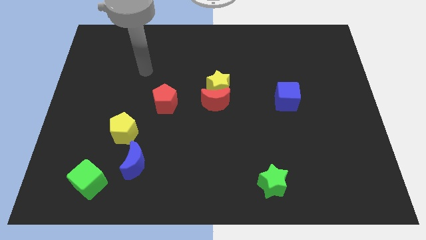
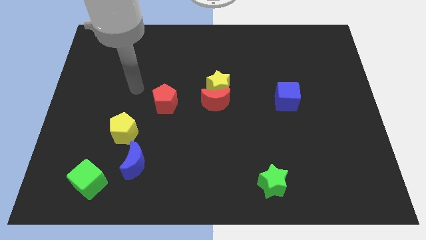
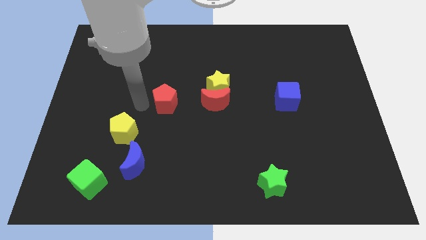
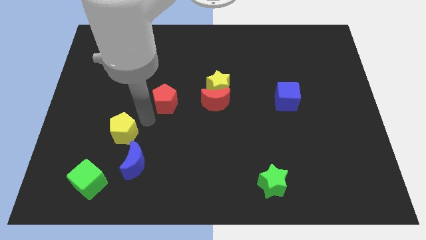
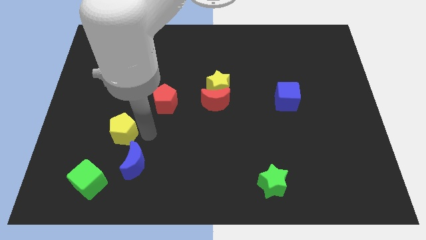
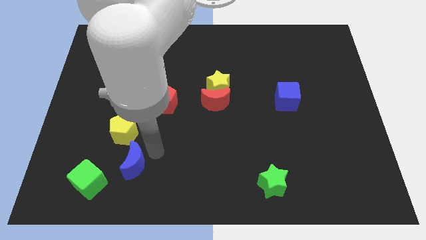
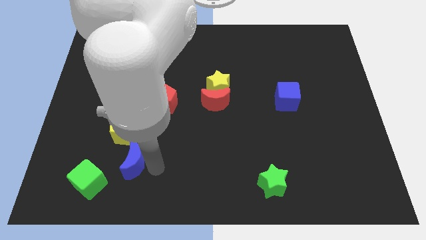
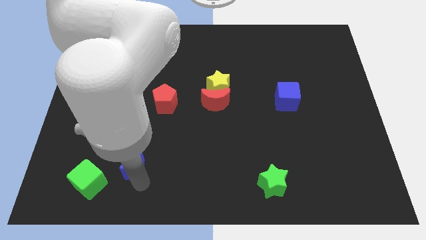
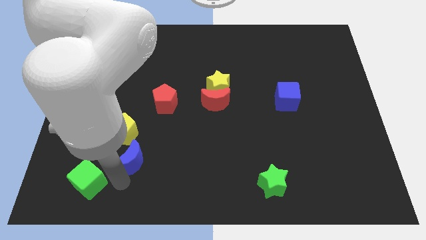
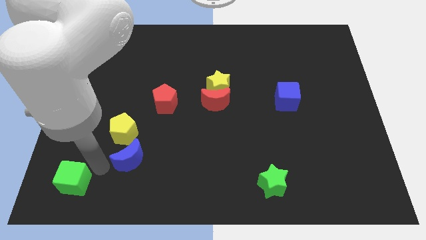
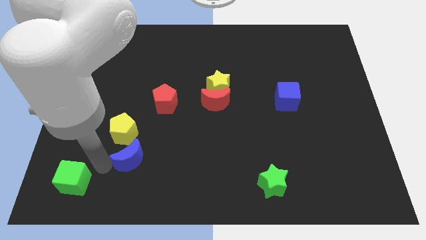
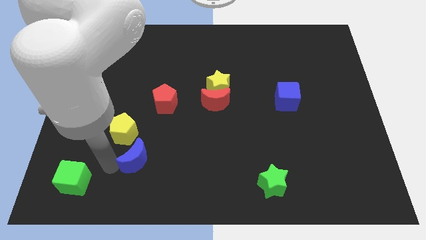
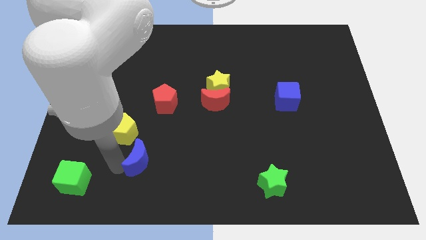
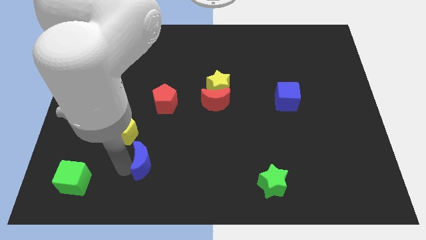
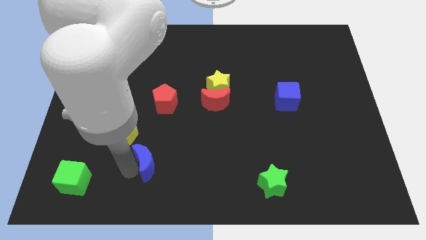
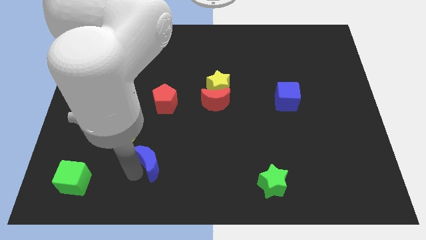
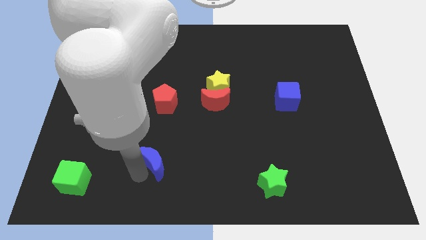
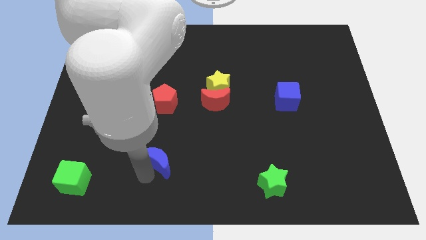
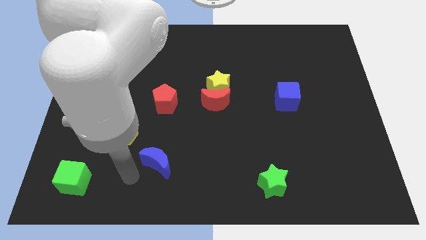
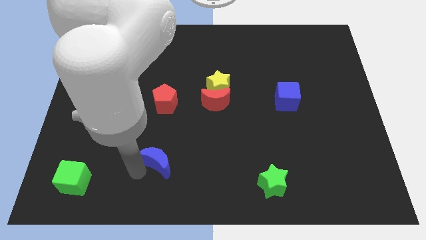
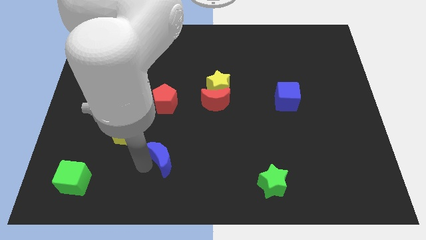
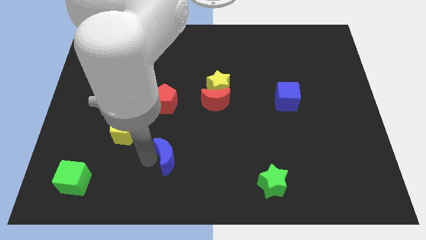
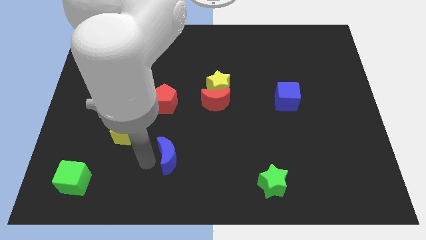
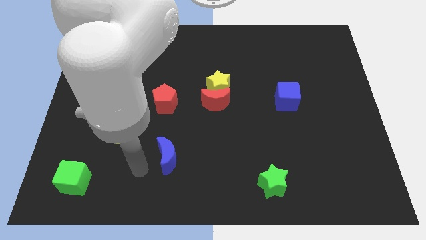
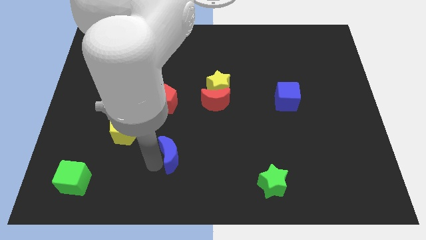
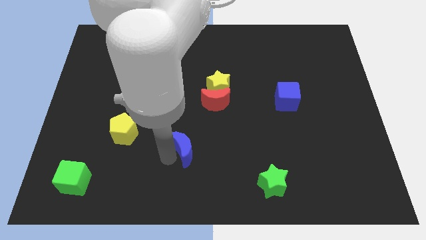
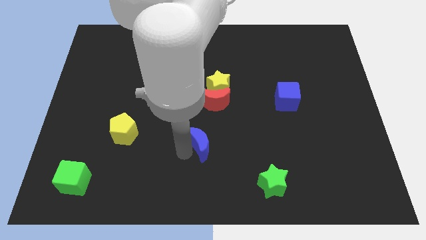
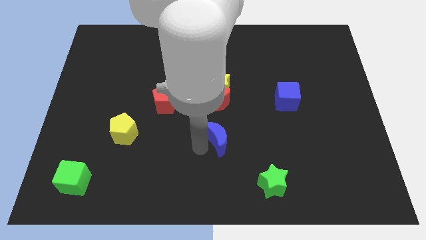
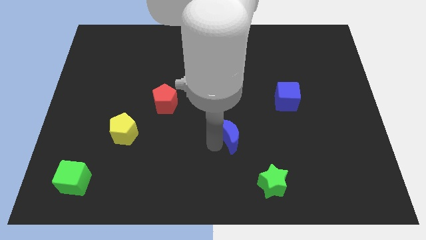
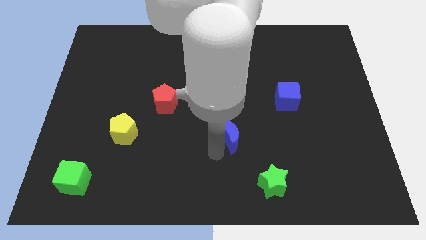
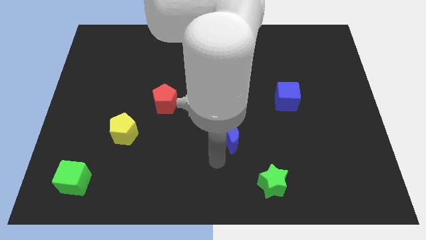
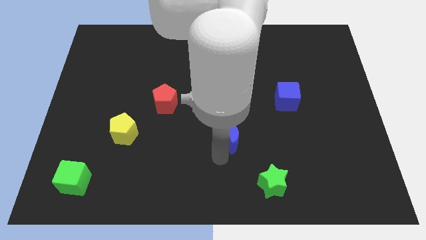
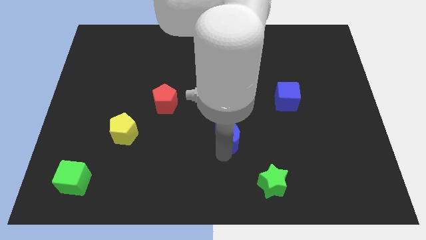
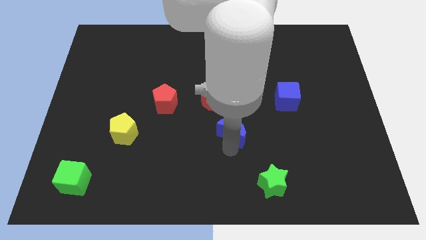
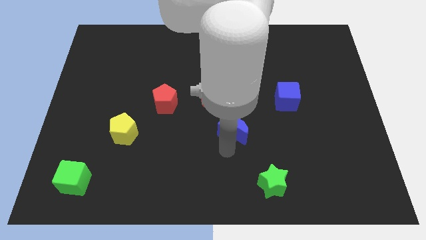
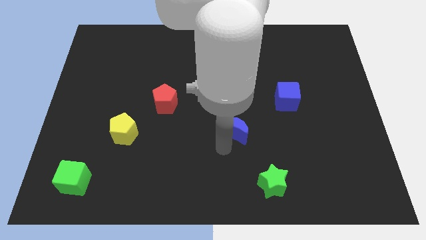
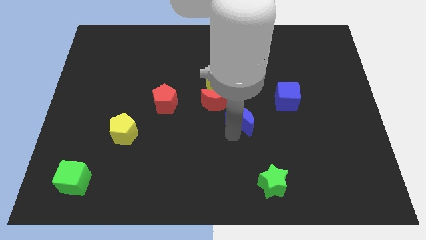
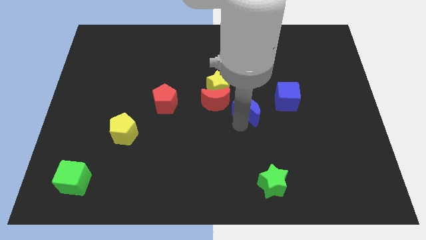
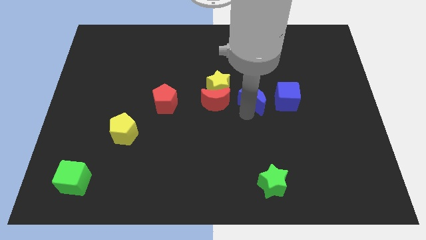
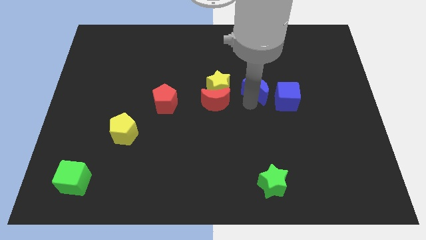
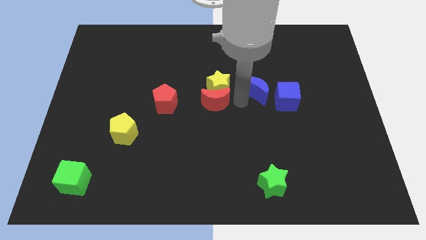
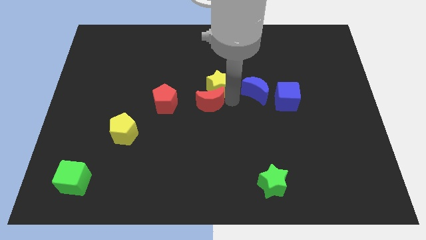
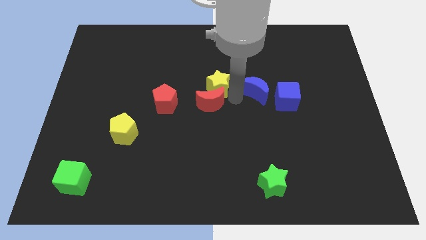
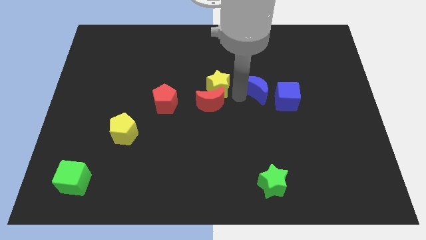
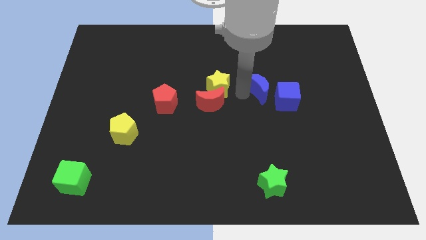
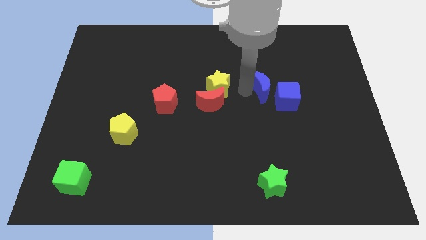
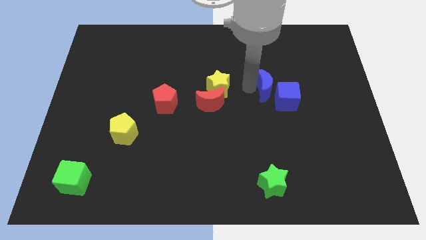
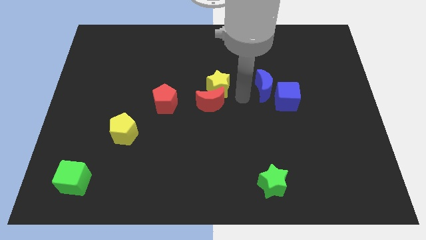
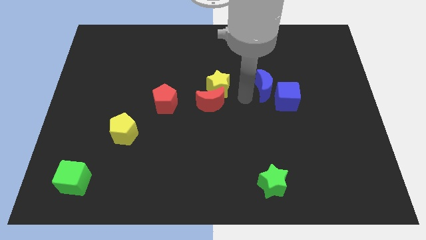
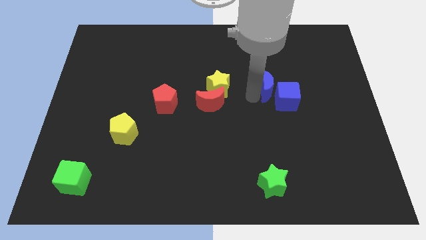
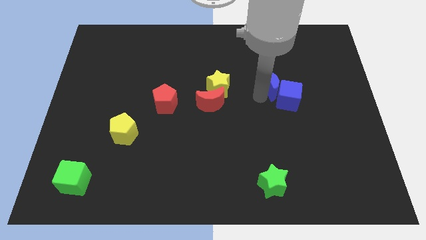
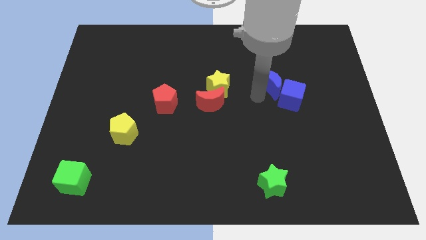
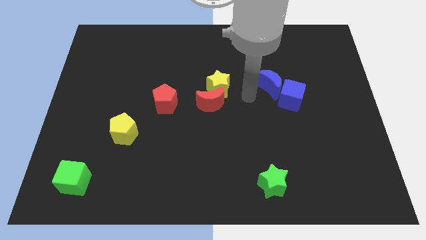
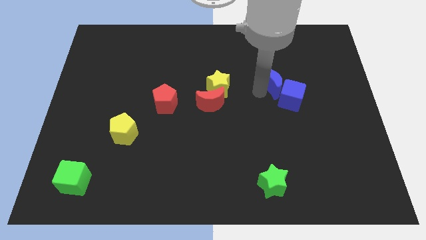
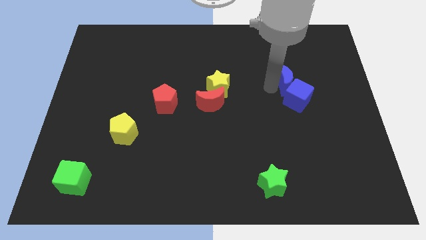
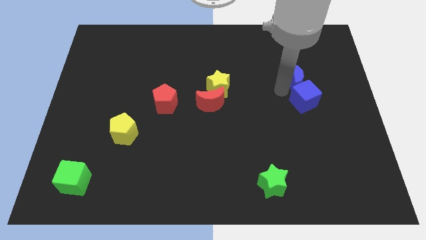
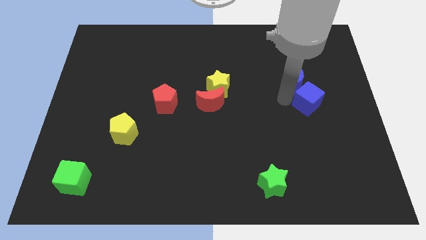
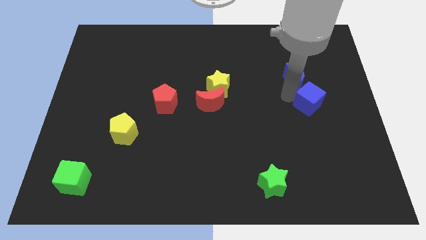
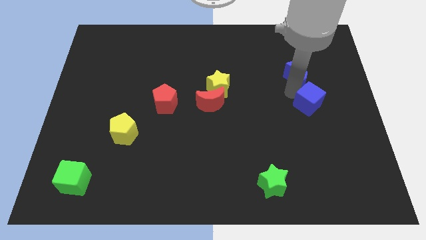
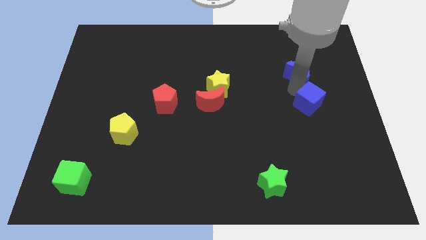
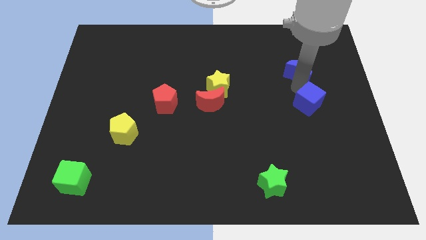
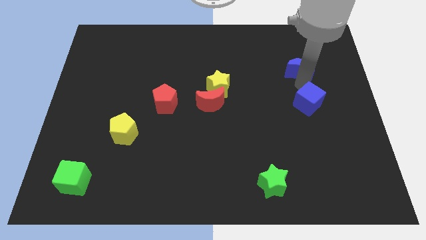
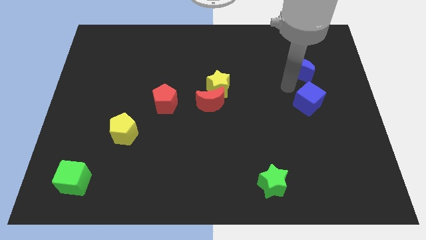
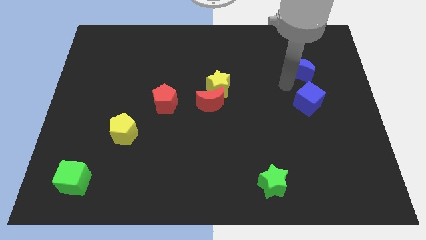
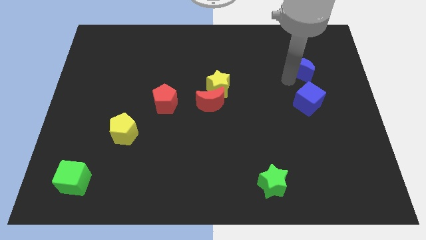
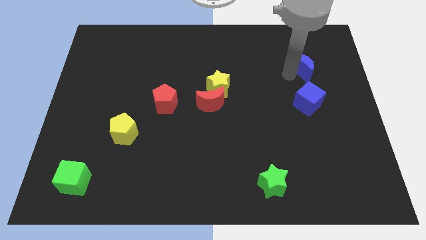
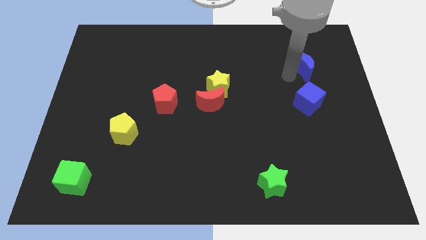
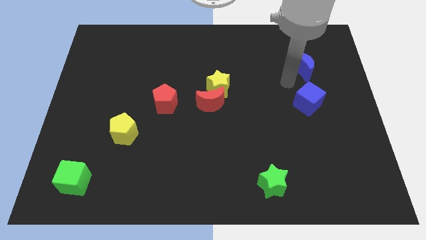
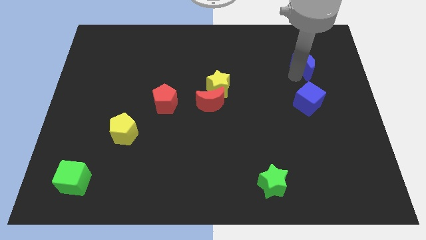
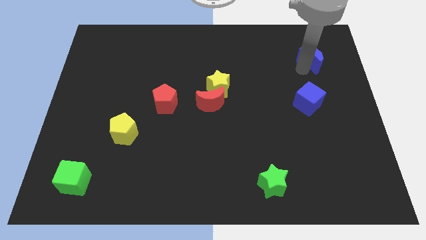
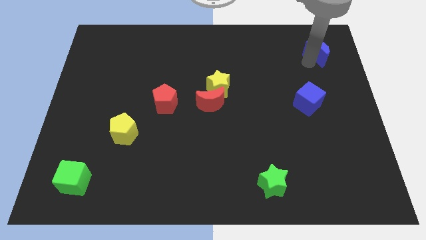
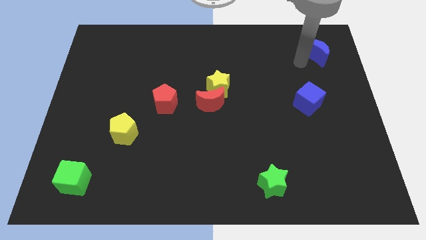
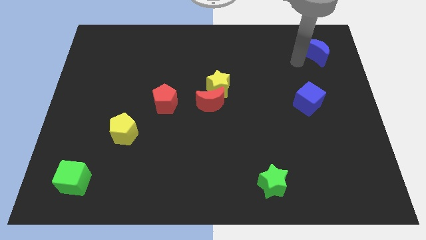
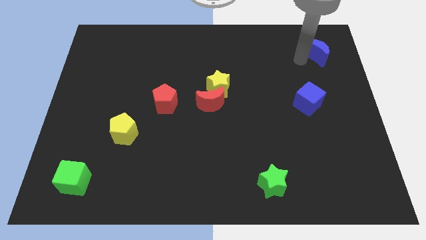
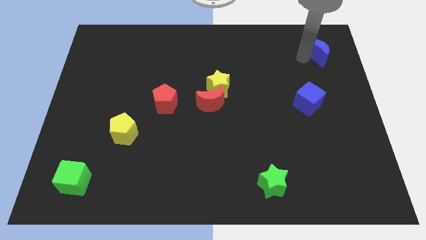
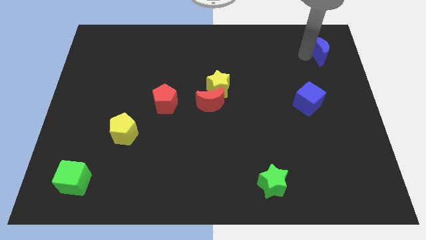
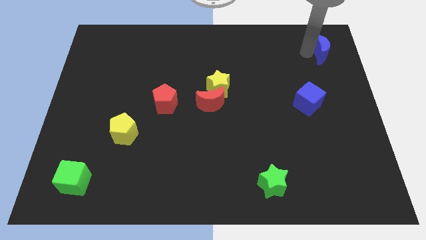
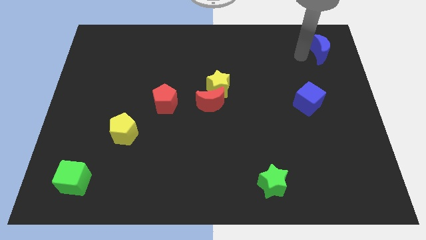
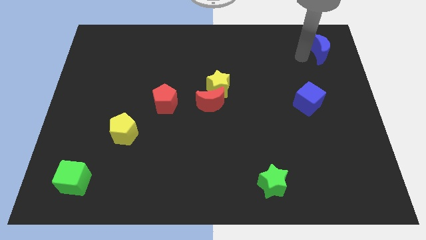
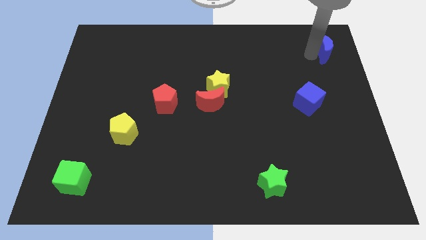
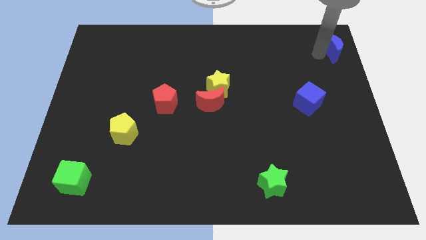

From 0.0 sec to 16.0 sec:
move the blue moon to the top right corner
